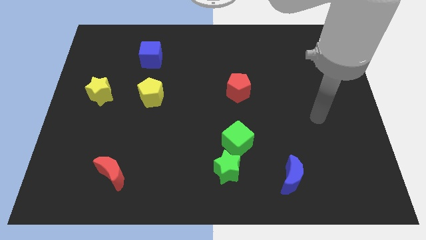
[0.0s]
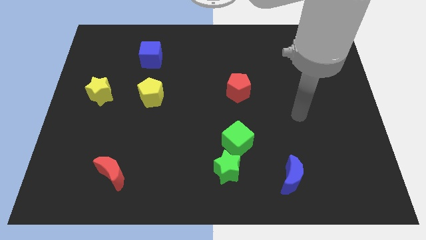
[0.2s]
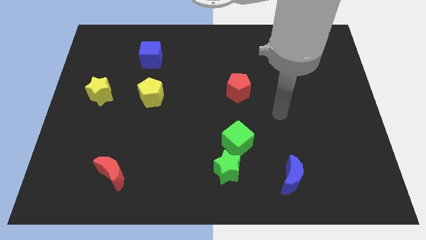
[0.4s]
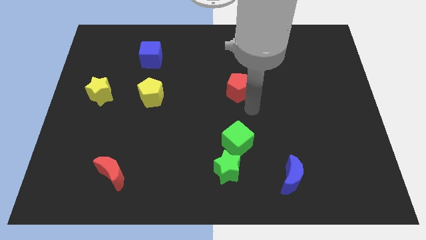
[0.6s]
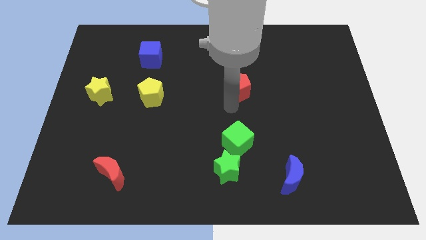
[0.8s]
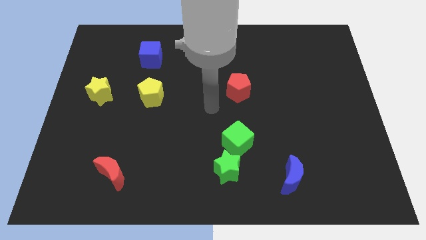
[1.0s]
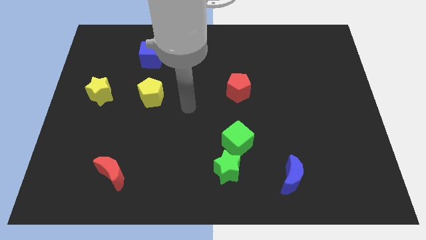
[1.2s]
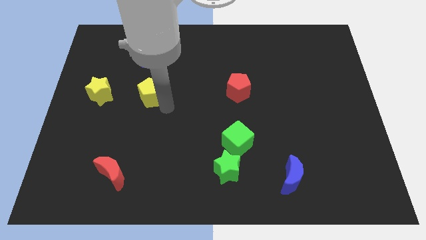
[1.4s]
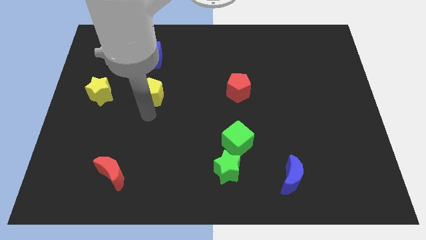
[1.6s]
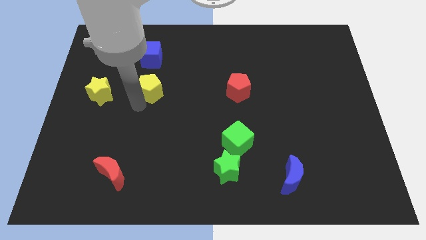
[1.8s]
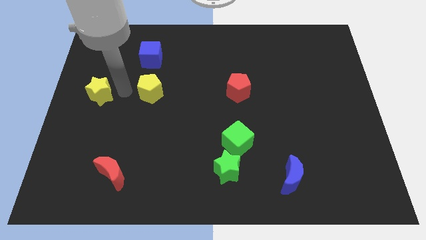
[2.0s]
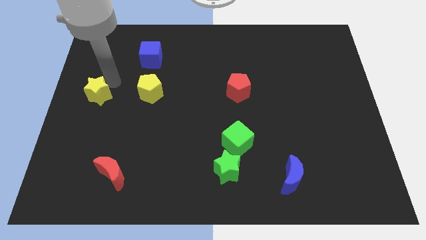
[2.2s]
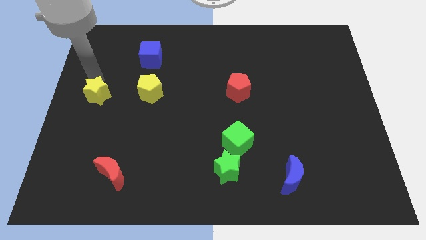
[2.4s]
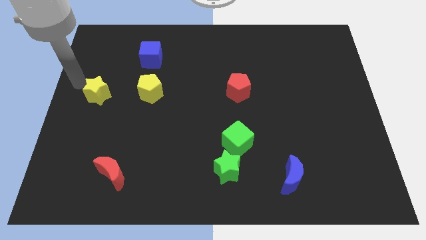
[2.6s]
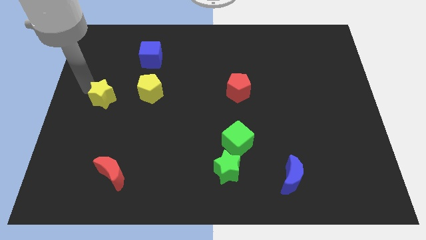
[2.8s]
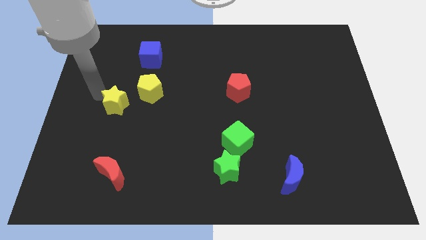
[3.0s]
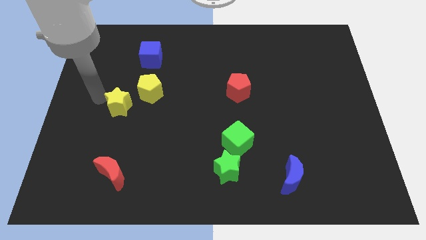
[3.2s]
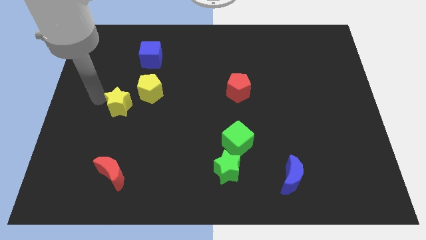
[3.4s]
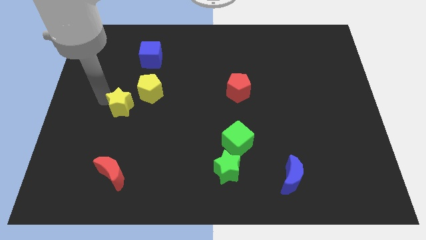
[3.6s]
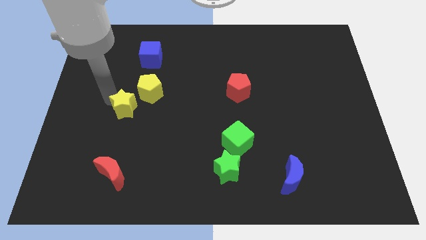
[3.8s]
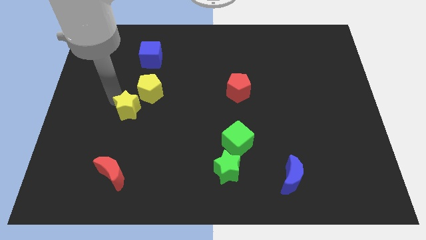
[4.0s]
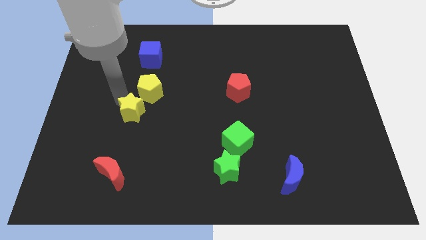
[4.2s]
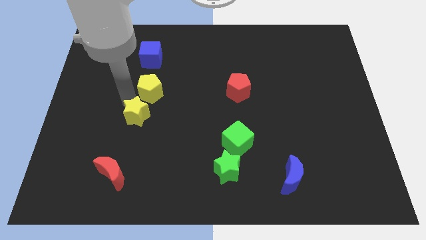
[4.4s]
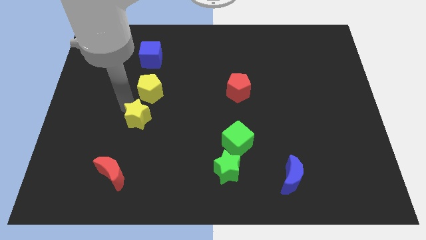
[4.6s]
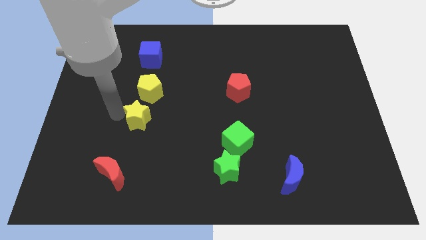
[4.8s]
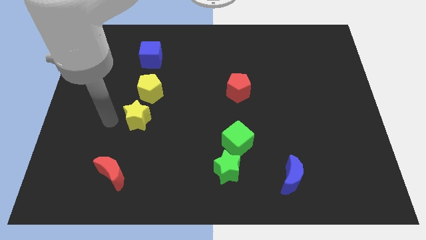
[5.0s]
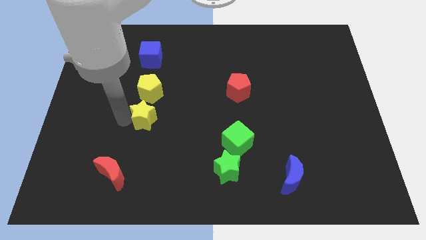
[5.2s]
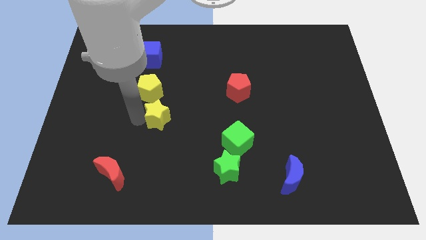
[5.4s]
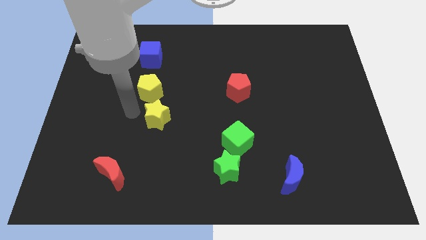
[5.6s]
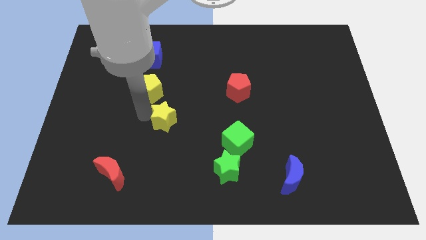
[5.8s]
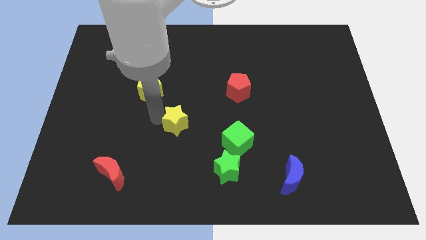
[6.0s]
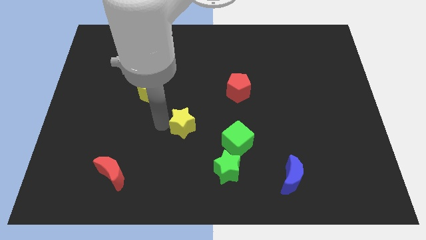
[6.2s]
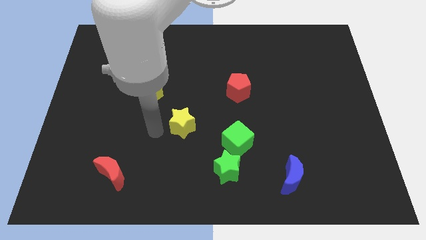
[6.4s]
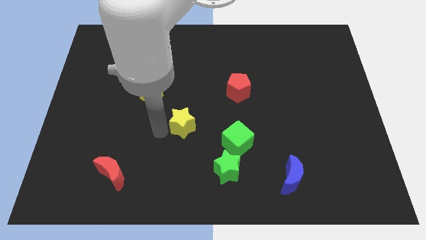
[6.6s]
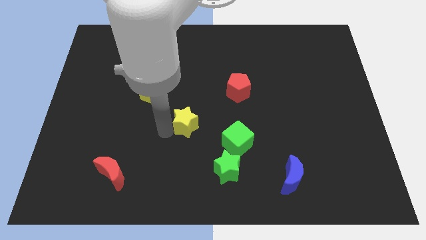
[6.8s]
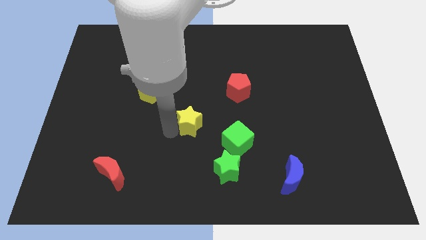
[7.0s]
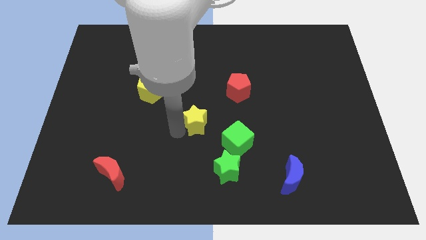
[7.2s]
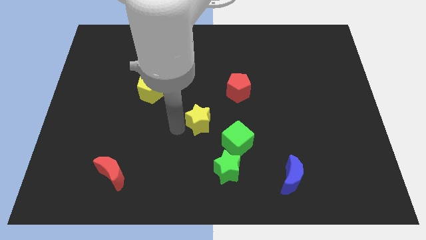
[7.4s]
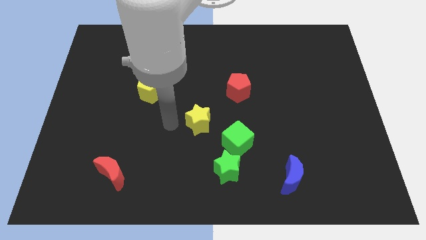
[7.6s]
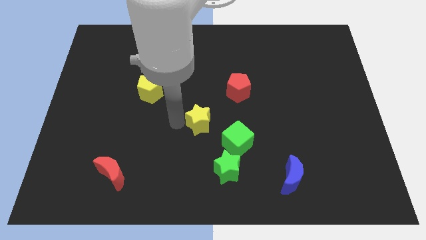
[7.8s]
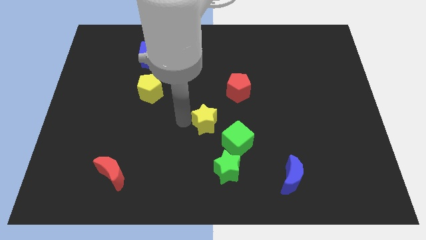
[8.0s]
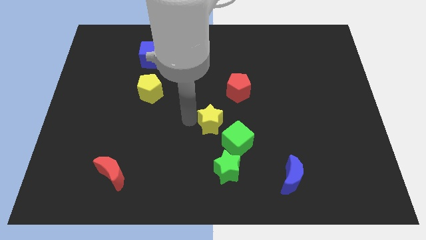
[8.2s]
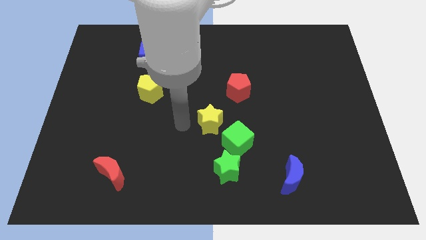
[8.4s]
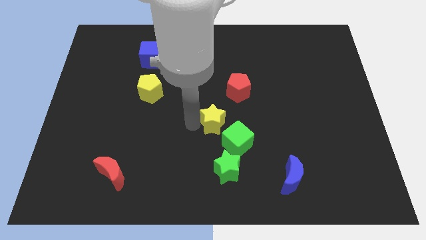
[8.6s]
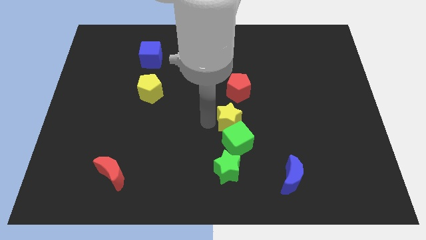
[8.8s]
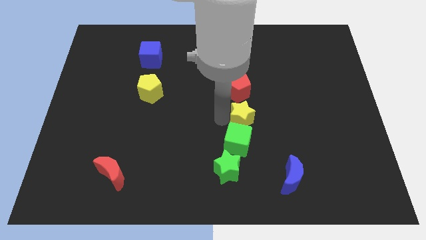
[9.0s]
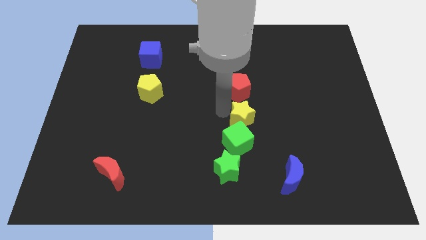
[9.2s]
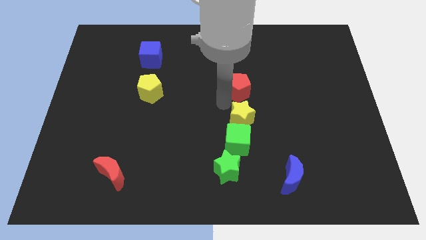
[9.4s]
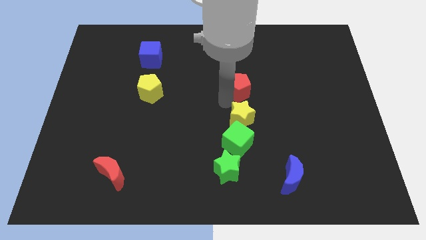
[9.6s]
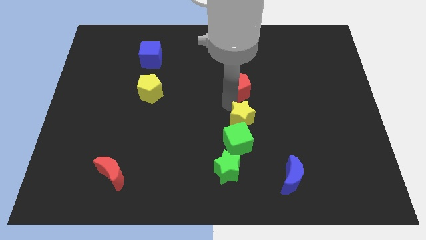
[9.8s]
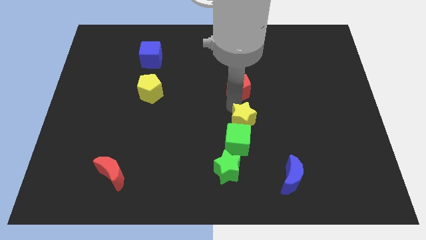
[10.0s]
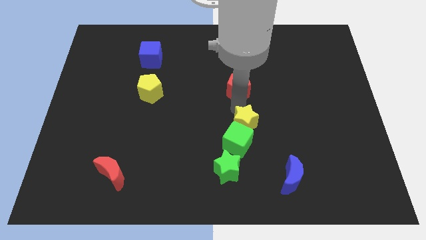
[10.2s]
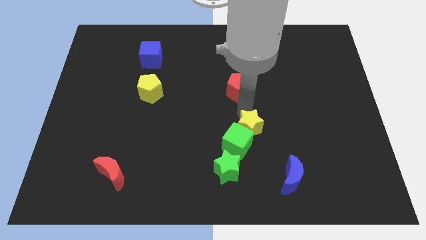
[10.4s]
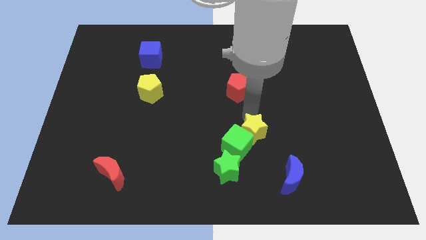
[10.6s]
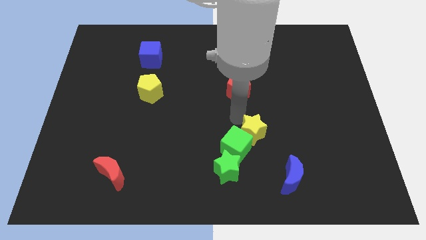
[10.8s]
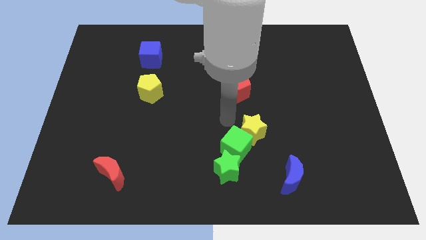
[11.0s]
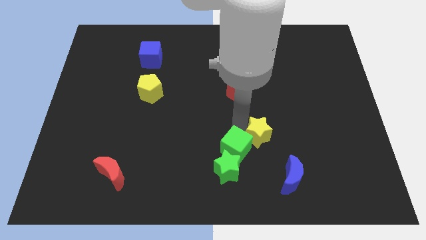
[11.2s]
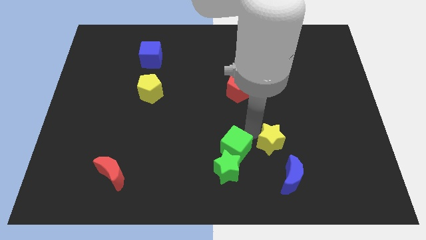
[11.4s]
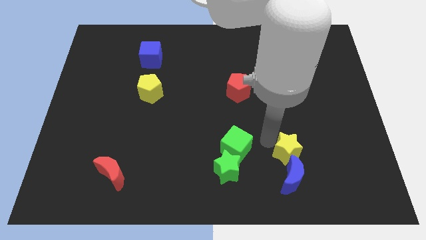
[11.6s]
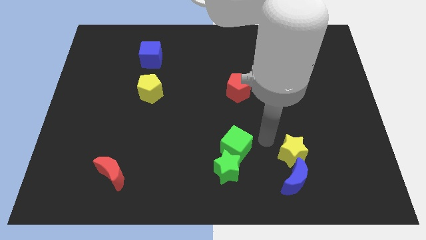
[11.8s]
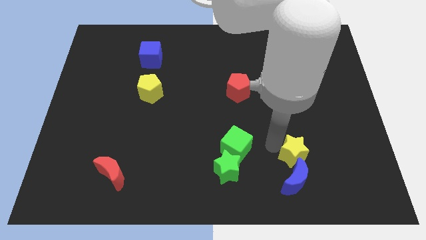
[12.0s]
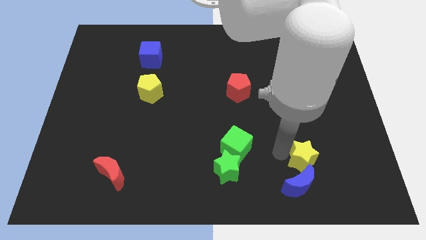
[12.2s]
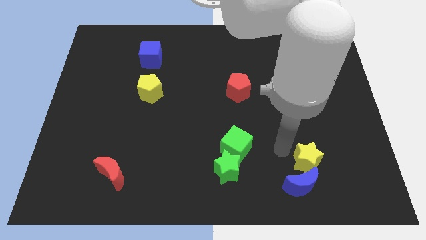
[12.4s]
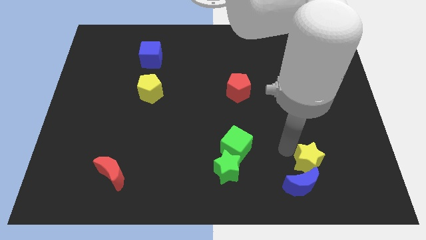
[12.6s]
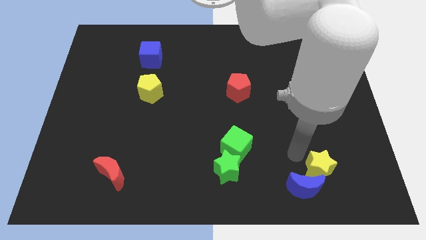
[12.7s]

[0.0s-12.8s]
put the yellow star just right of the blue moon
